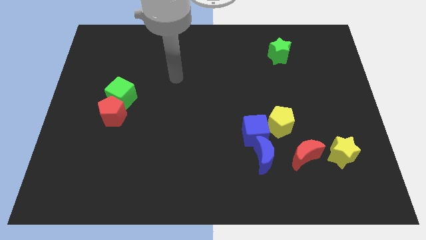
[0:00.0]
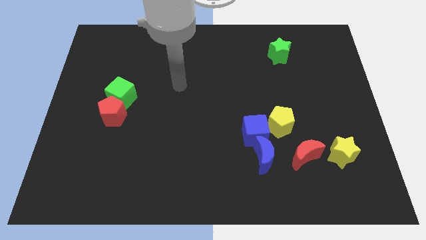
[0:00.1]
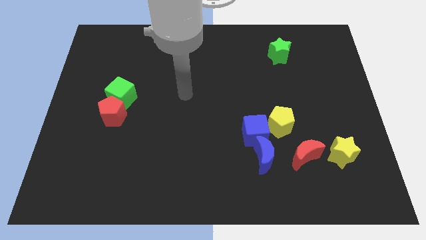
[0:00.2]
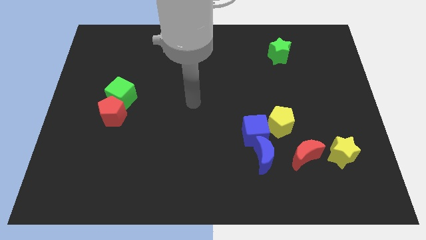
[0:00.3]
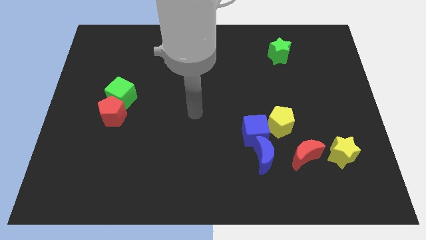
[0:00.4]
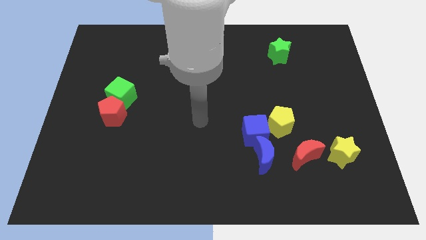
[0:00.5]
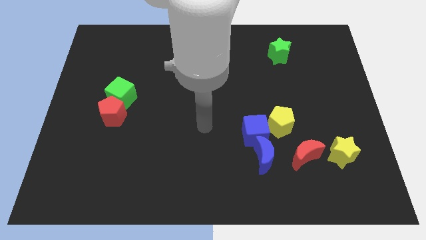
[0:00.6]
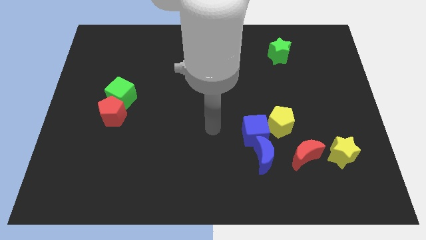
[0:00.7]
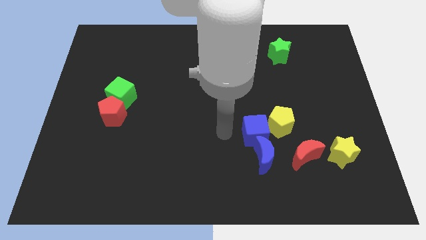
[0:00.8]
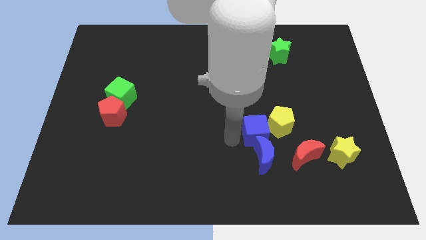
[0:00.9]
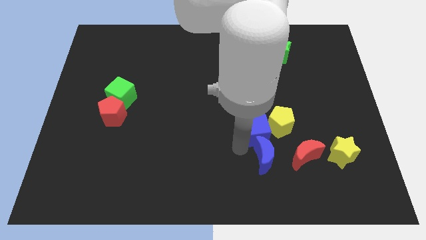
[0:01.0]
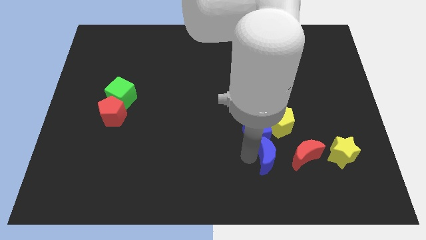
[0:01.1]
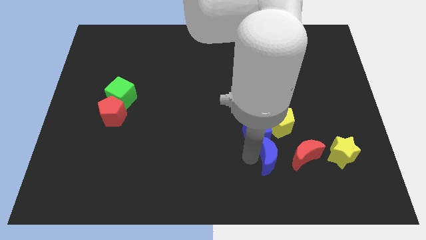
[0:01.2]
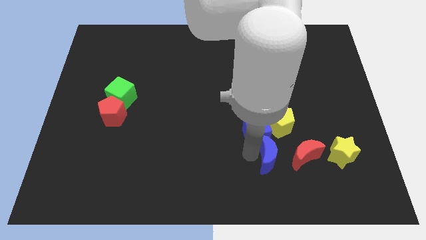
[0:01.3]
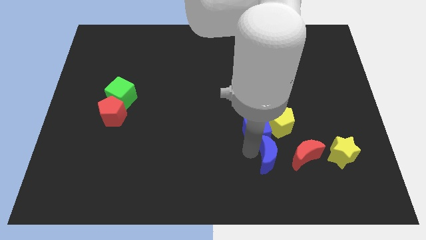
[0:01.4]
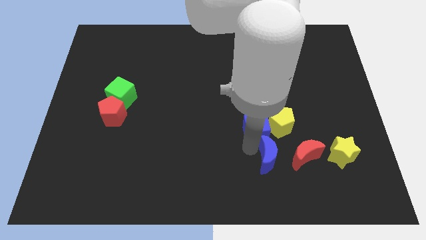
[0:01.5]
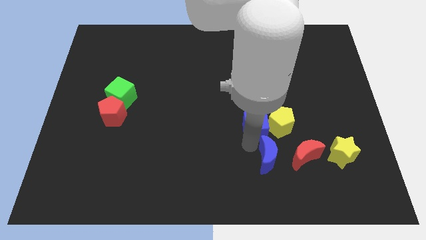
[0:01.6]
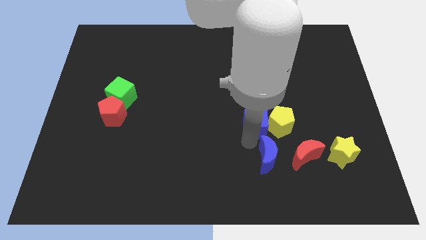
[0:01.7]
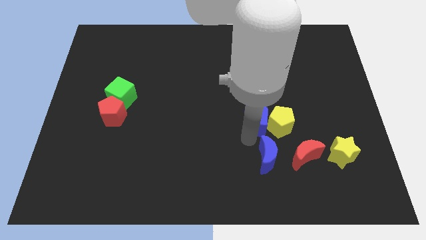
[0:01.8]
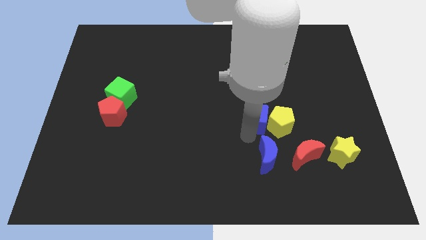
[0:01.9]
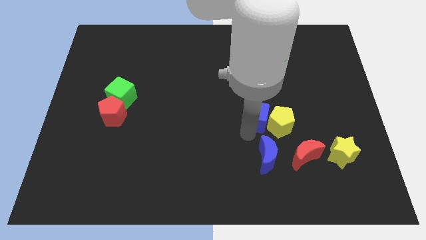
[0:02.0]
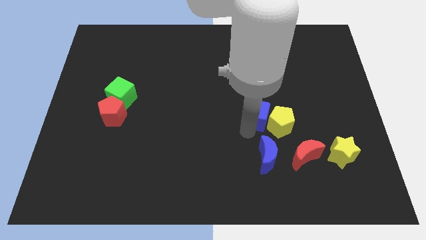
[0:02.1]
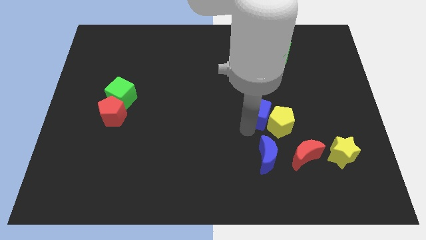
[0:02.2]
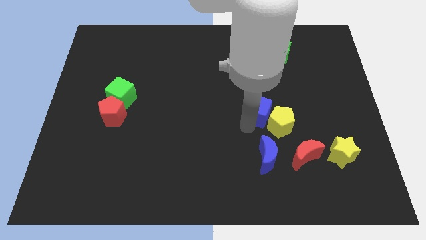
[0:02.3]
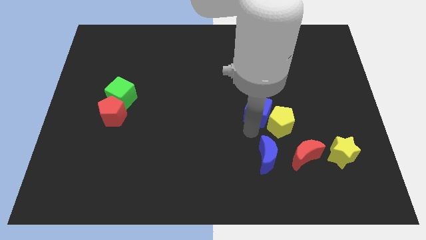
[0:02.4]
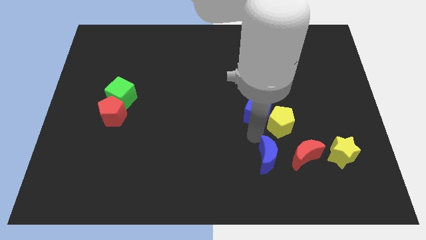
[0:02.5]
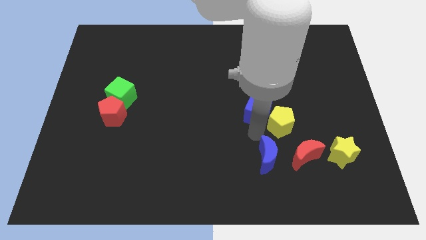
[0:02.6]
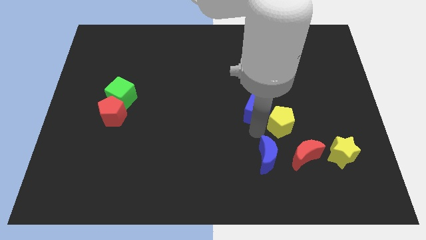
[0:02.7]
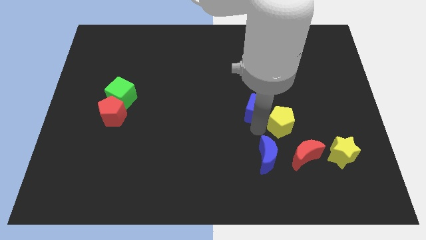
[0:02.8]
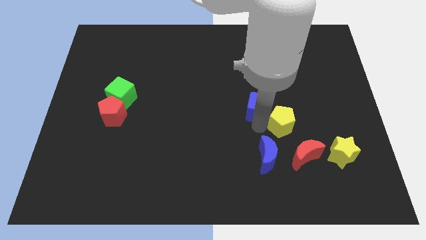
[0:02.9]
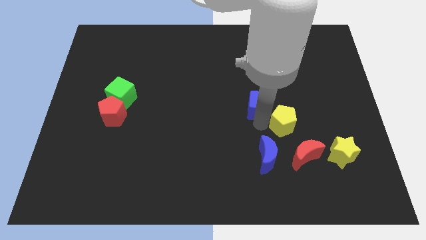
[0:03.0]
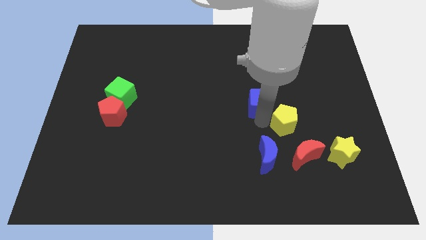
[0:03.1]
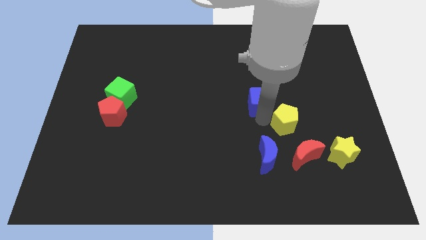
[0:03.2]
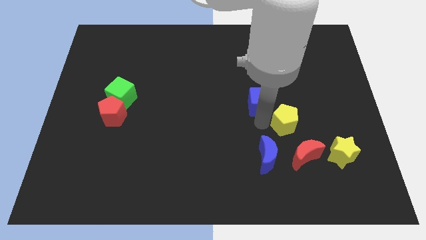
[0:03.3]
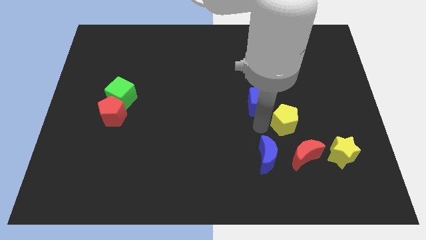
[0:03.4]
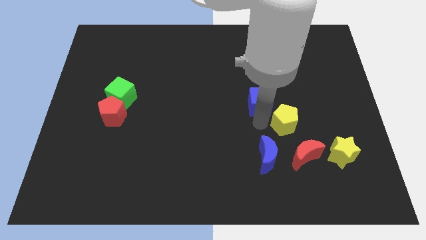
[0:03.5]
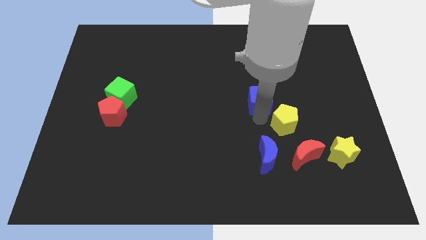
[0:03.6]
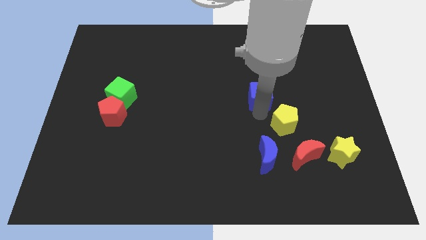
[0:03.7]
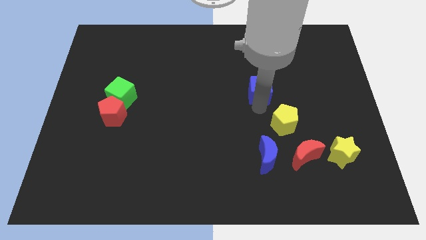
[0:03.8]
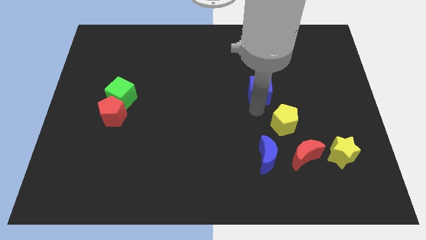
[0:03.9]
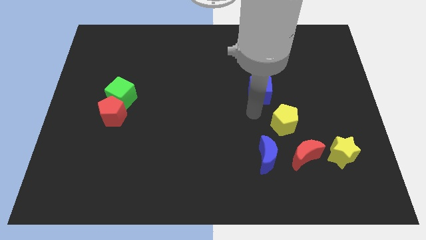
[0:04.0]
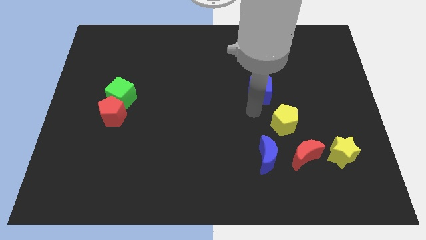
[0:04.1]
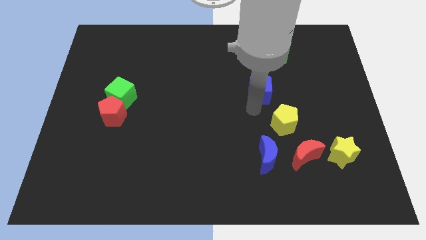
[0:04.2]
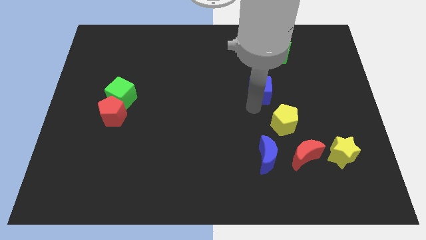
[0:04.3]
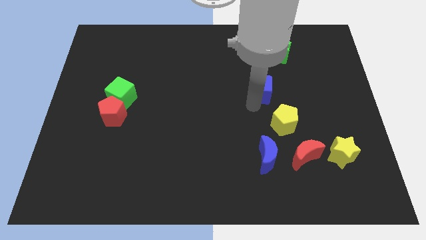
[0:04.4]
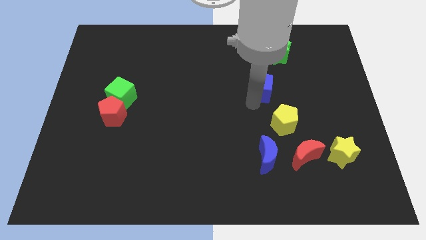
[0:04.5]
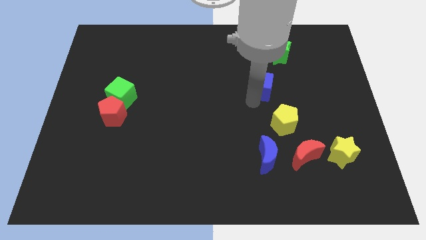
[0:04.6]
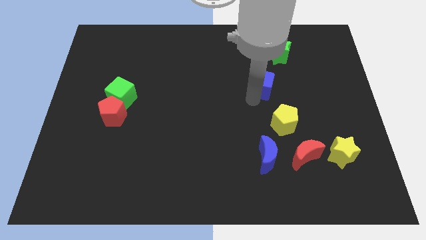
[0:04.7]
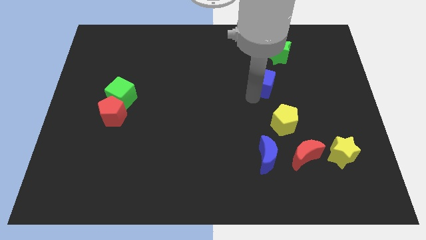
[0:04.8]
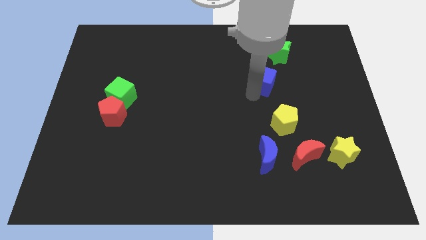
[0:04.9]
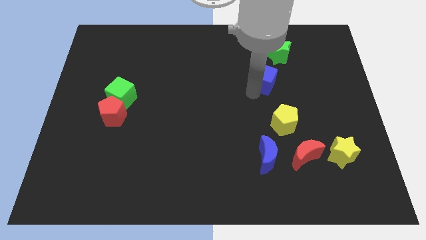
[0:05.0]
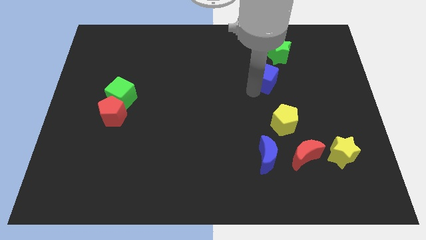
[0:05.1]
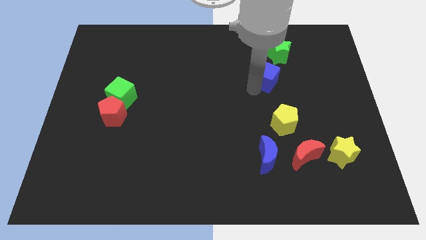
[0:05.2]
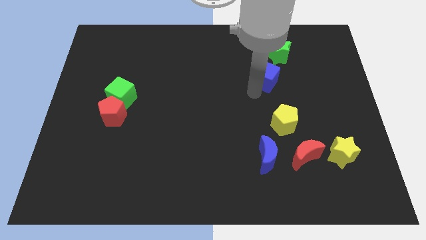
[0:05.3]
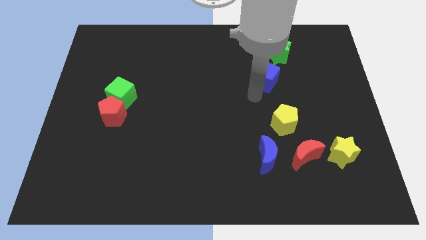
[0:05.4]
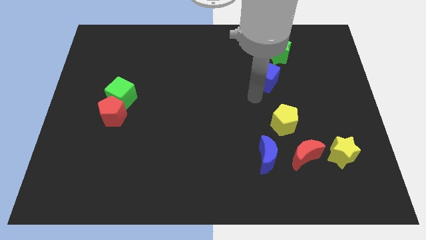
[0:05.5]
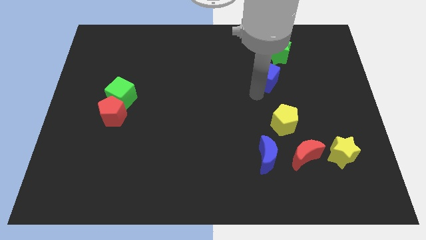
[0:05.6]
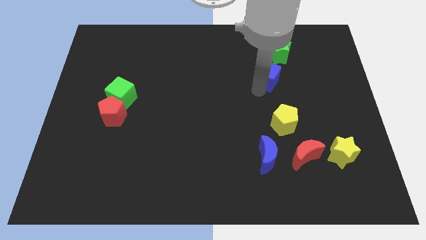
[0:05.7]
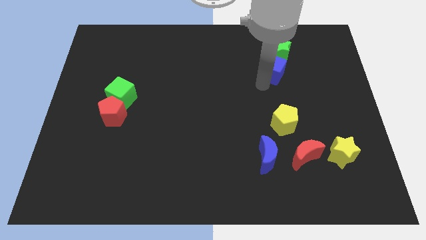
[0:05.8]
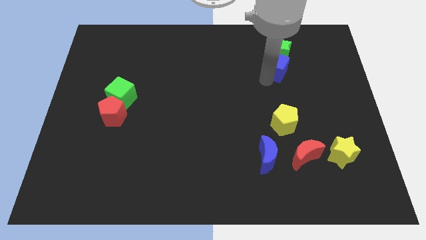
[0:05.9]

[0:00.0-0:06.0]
slide the blue cube close to the green star

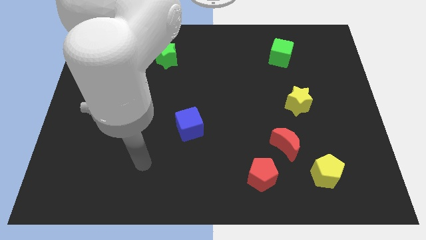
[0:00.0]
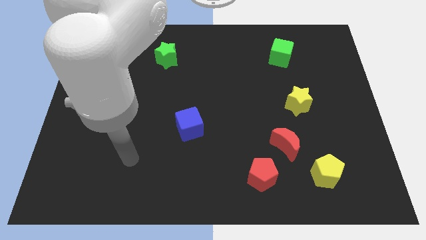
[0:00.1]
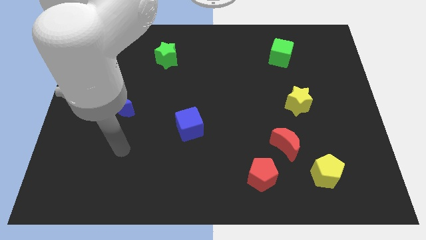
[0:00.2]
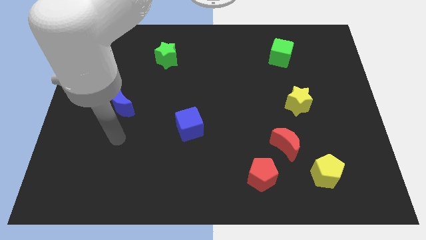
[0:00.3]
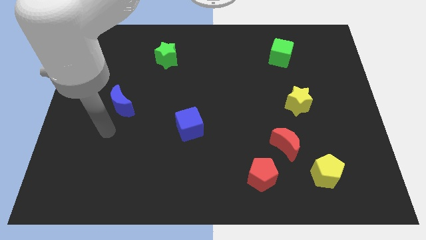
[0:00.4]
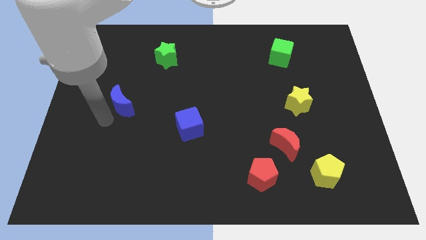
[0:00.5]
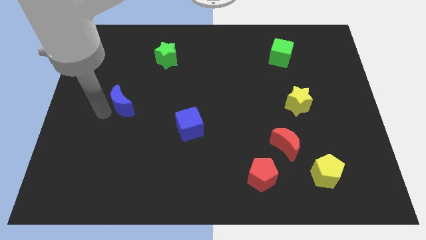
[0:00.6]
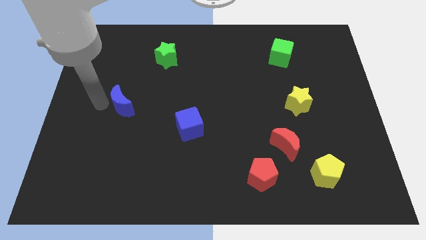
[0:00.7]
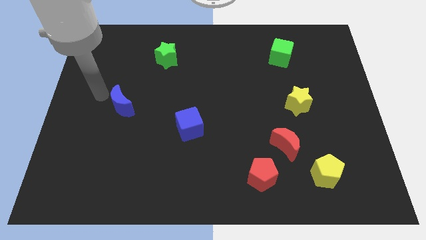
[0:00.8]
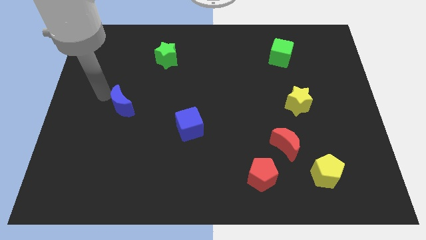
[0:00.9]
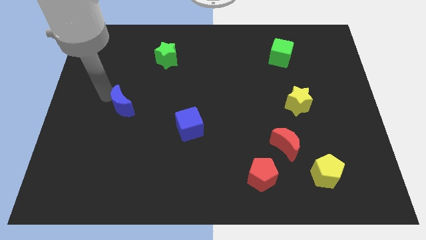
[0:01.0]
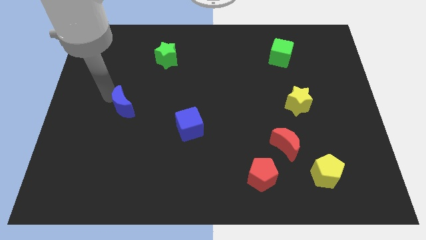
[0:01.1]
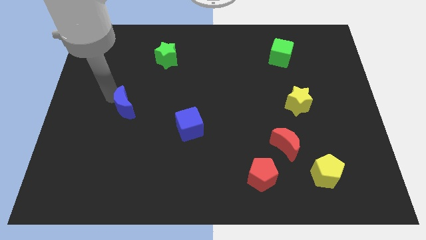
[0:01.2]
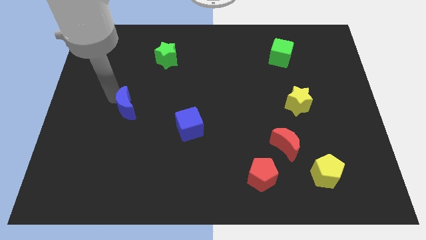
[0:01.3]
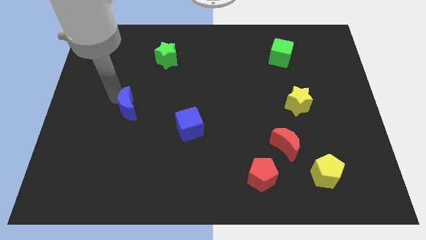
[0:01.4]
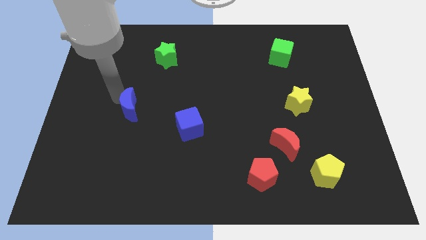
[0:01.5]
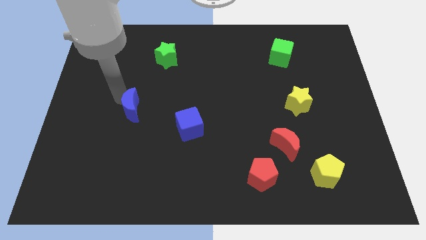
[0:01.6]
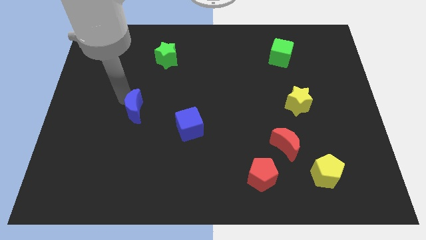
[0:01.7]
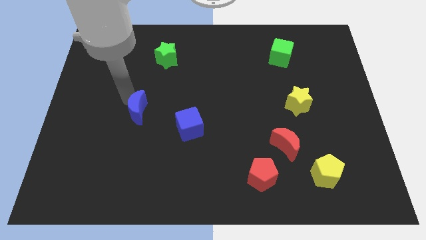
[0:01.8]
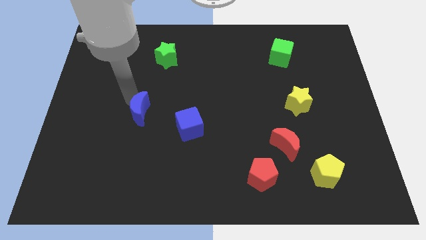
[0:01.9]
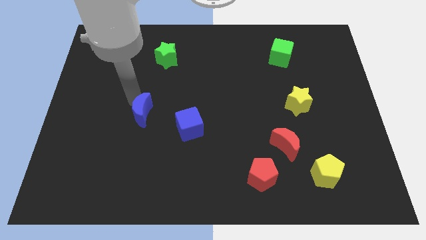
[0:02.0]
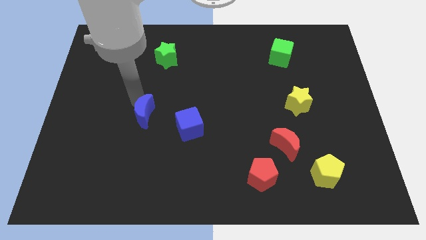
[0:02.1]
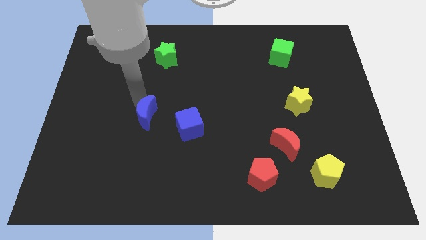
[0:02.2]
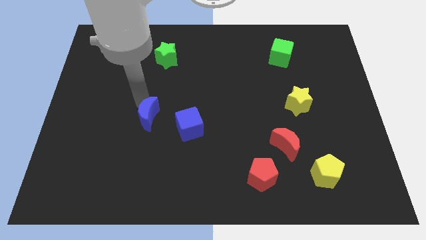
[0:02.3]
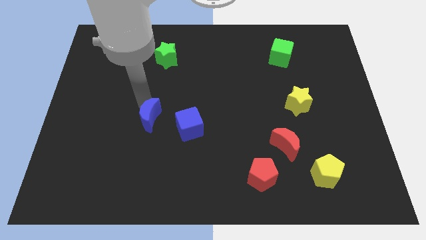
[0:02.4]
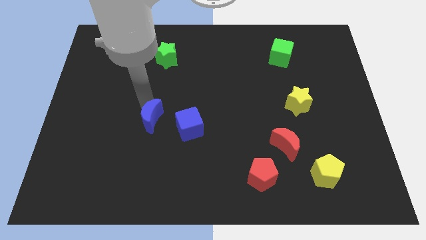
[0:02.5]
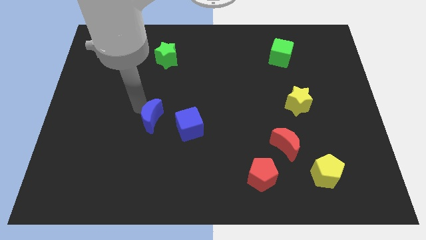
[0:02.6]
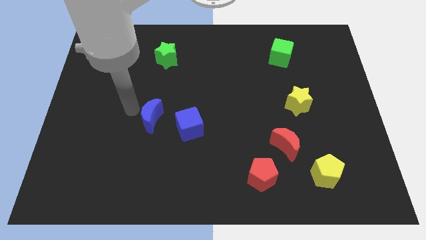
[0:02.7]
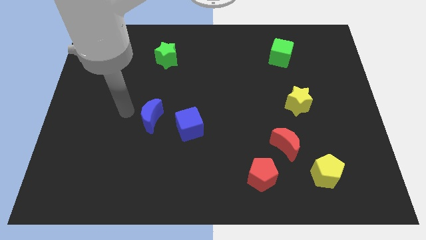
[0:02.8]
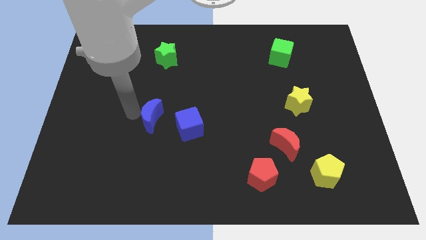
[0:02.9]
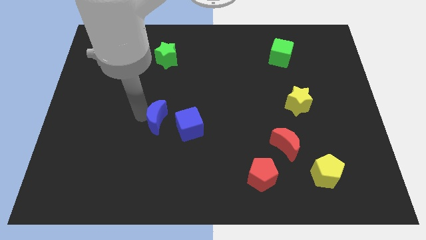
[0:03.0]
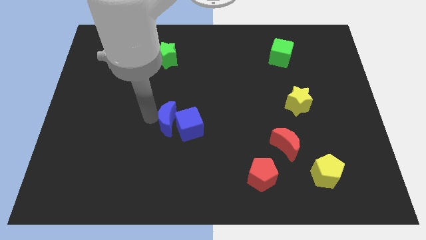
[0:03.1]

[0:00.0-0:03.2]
move the blue moon next to the blue cube
